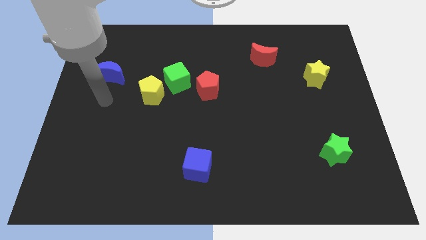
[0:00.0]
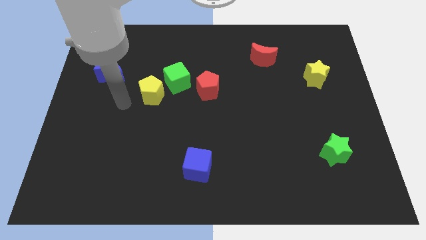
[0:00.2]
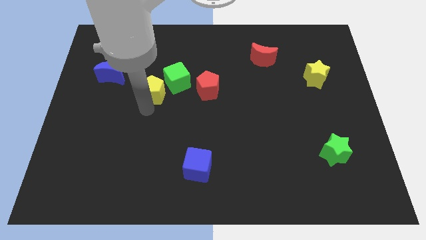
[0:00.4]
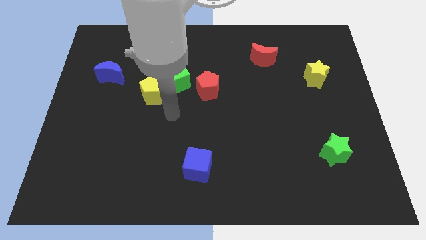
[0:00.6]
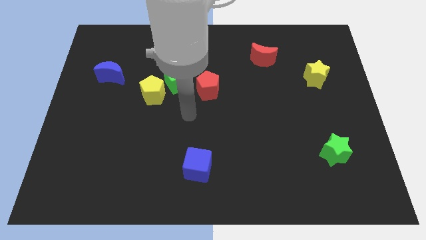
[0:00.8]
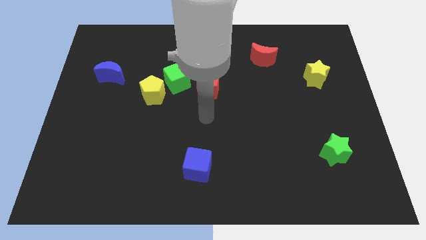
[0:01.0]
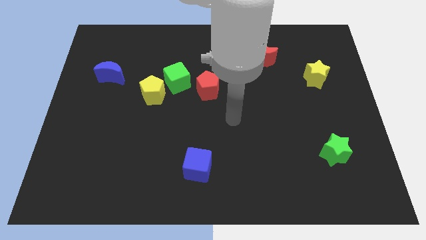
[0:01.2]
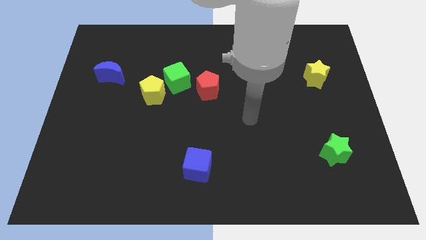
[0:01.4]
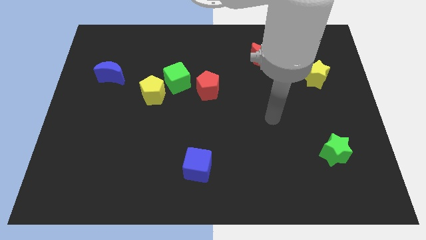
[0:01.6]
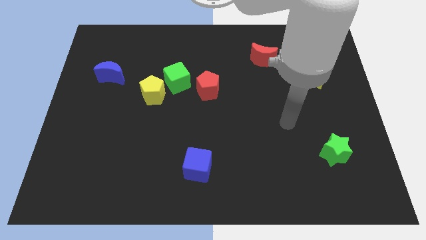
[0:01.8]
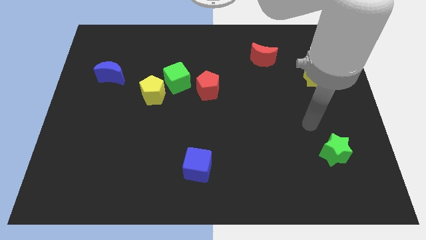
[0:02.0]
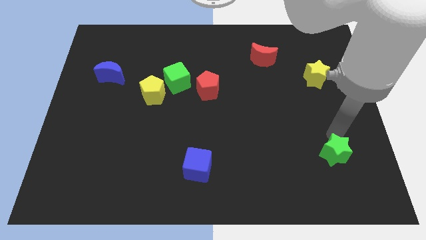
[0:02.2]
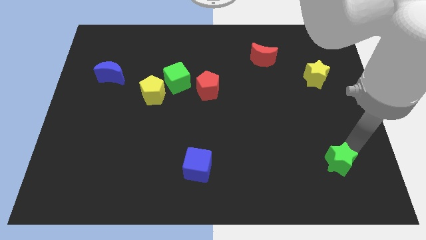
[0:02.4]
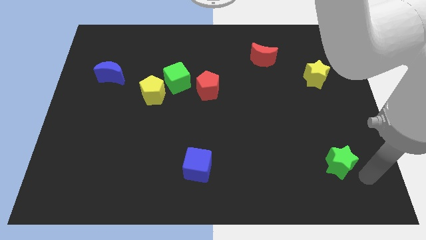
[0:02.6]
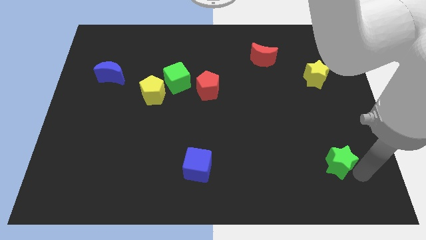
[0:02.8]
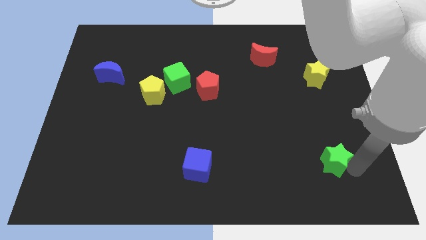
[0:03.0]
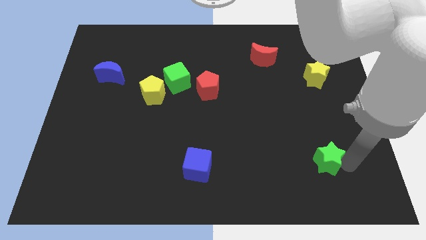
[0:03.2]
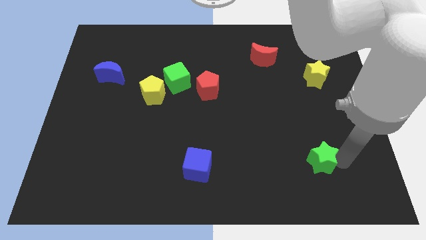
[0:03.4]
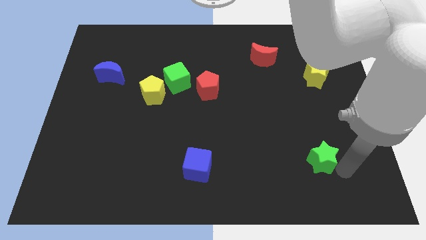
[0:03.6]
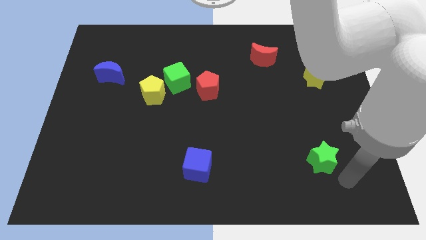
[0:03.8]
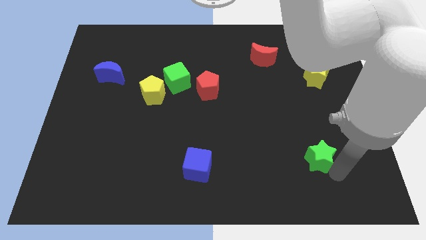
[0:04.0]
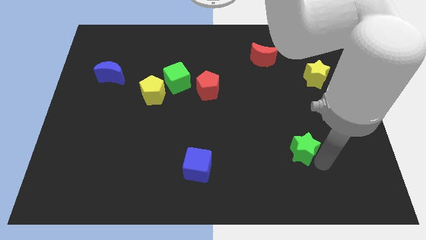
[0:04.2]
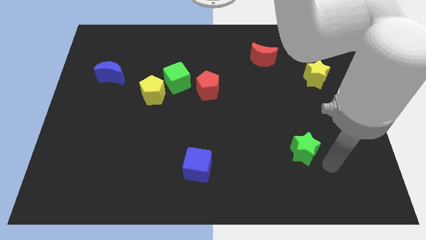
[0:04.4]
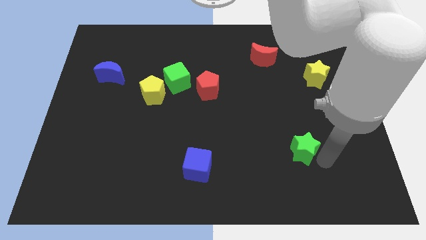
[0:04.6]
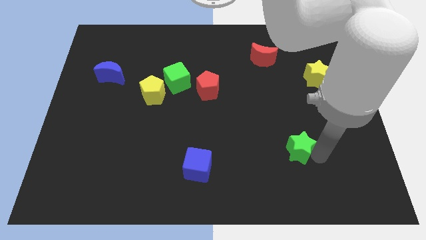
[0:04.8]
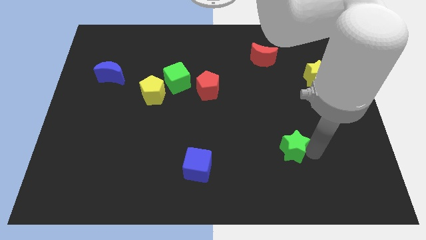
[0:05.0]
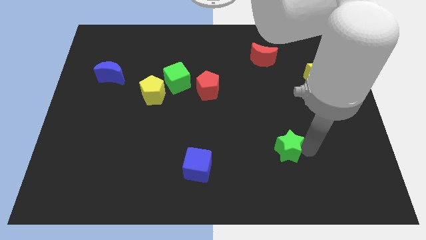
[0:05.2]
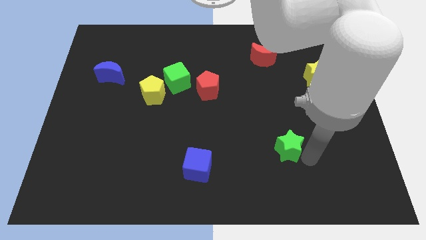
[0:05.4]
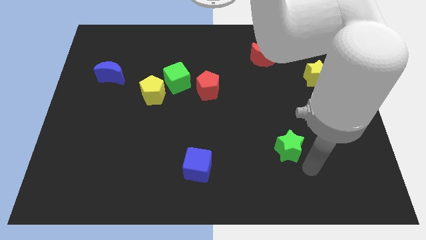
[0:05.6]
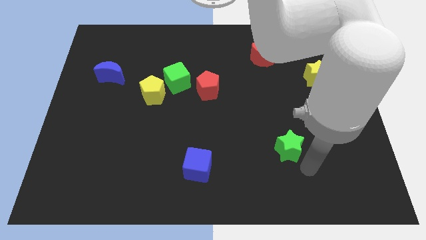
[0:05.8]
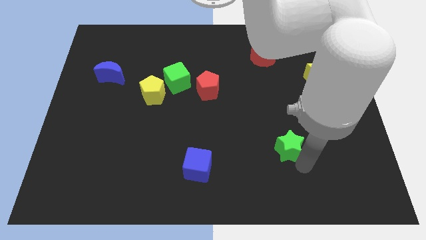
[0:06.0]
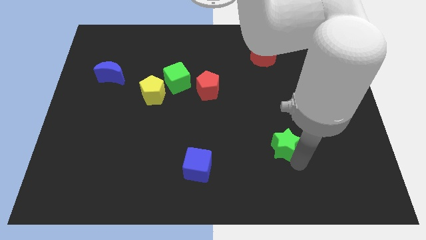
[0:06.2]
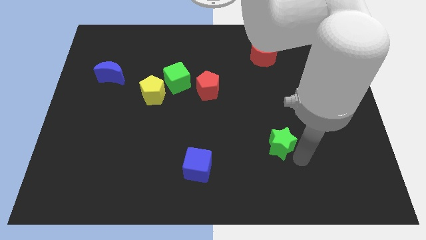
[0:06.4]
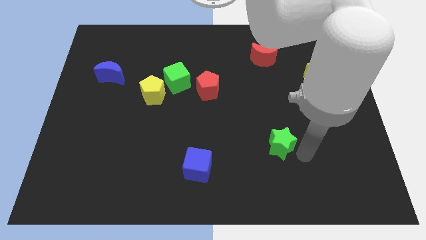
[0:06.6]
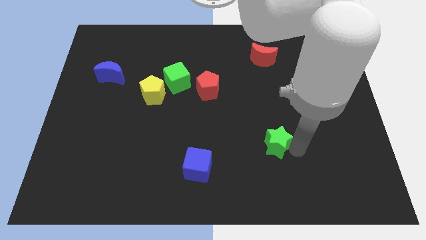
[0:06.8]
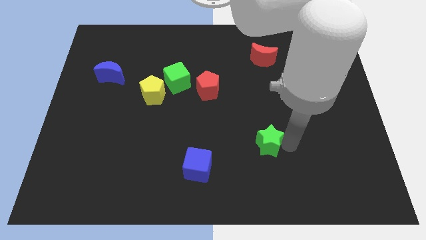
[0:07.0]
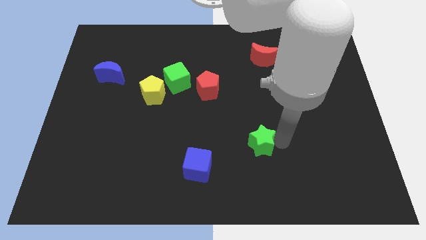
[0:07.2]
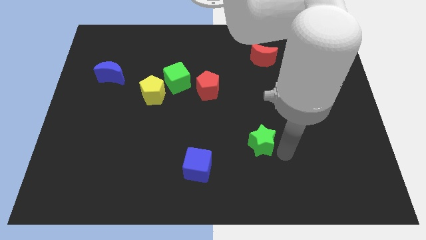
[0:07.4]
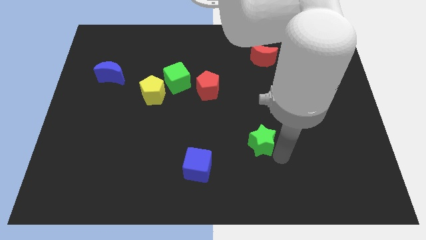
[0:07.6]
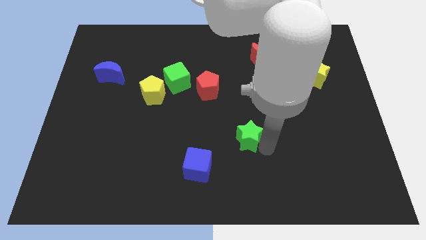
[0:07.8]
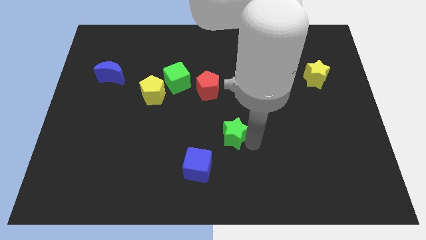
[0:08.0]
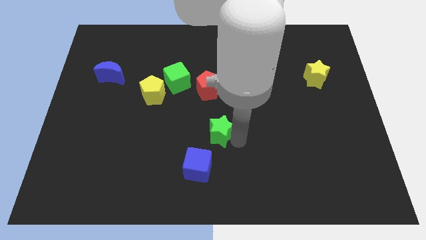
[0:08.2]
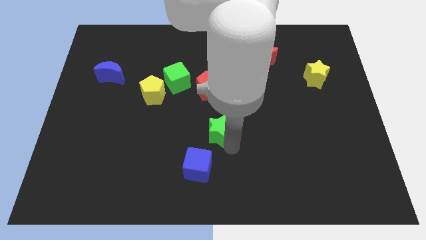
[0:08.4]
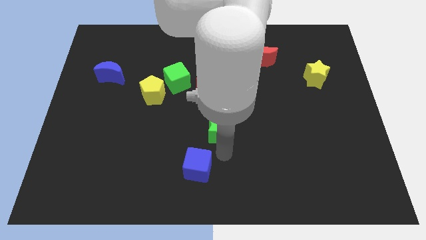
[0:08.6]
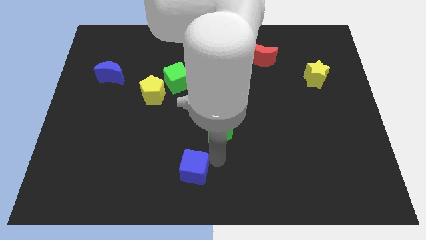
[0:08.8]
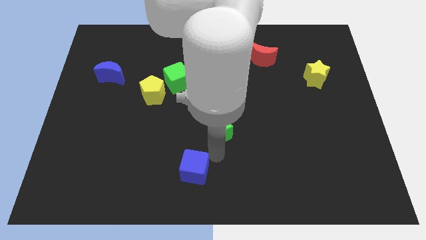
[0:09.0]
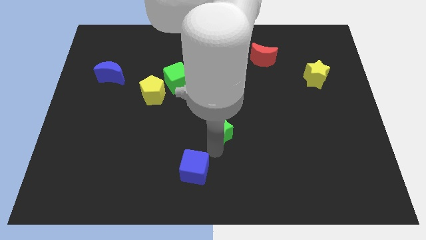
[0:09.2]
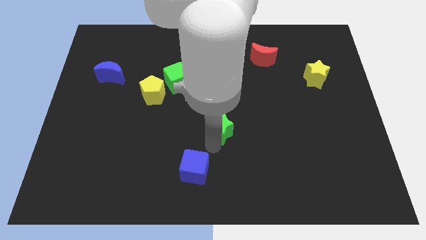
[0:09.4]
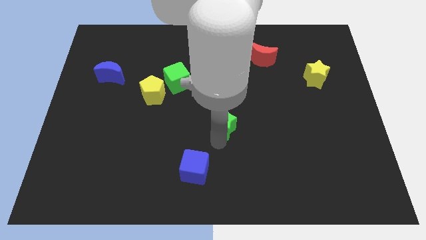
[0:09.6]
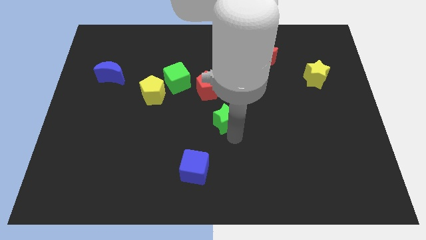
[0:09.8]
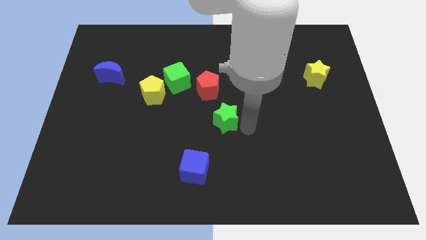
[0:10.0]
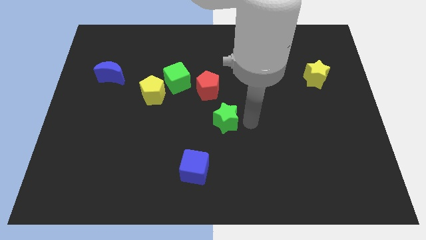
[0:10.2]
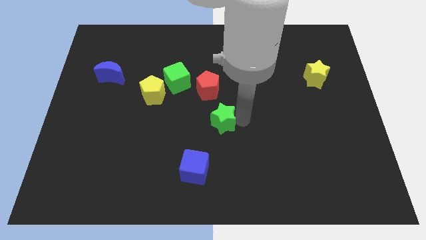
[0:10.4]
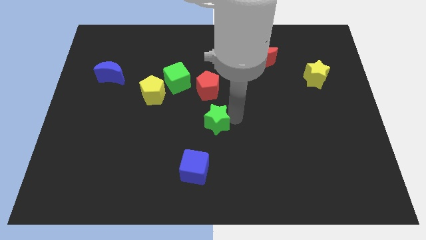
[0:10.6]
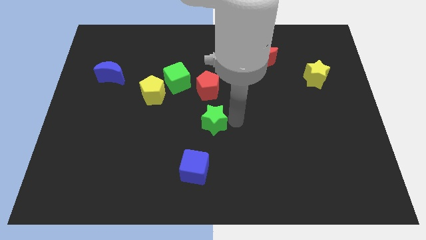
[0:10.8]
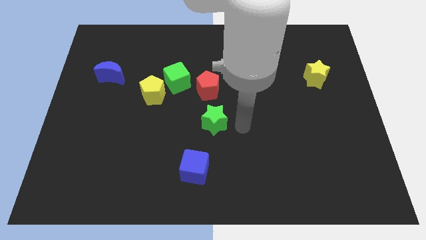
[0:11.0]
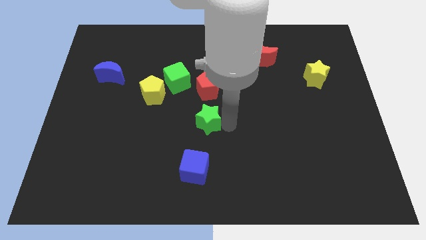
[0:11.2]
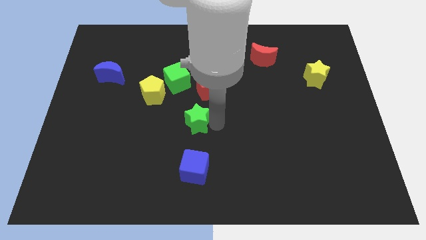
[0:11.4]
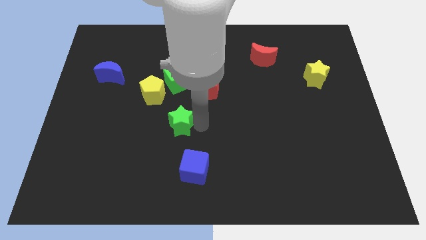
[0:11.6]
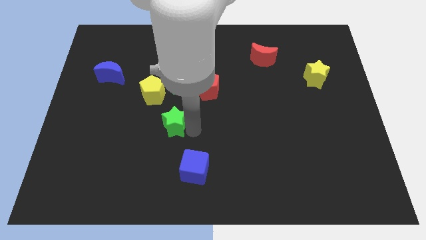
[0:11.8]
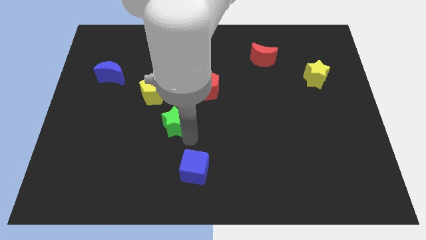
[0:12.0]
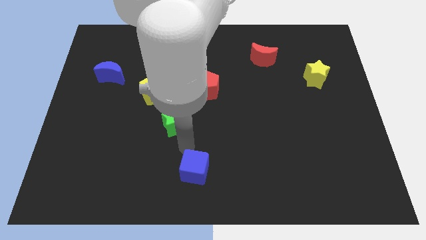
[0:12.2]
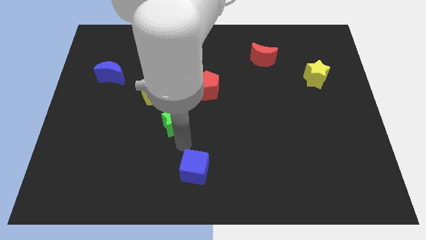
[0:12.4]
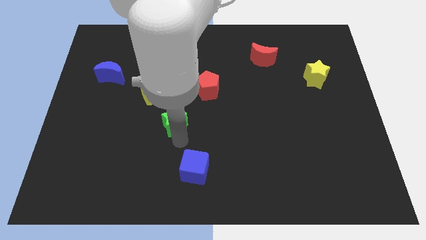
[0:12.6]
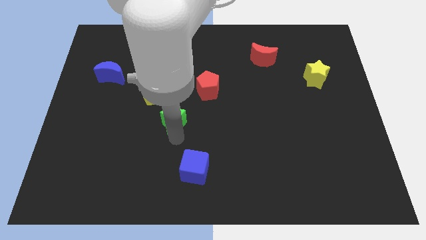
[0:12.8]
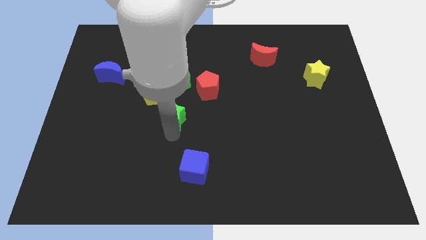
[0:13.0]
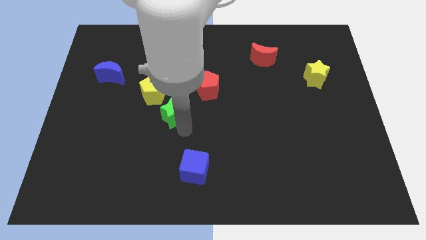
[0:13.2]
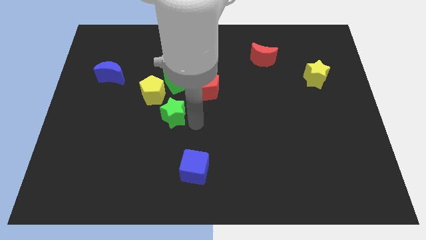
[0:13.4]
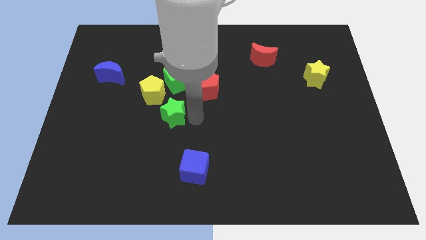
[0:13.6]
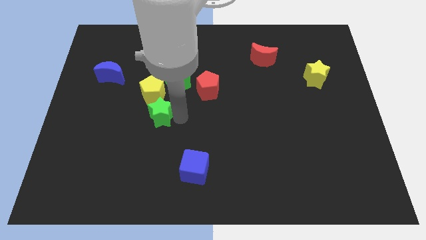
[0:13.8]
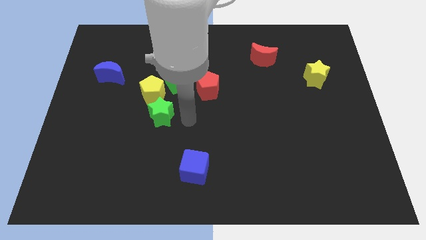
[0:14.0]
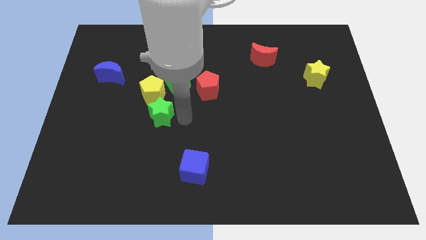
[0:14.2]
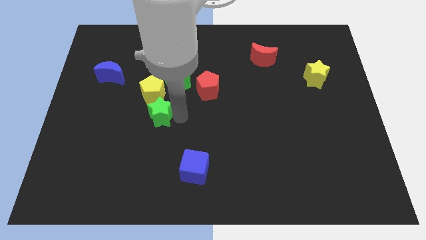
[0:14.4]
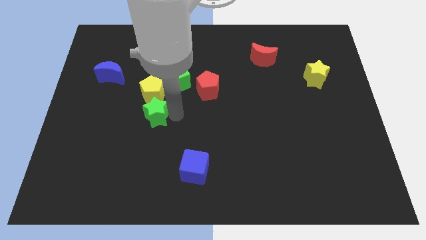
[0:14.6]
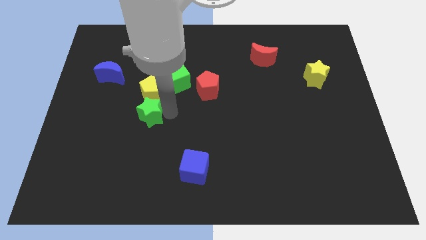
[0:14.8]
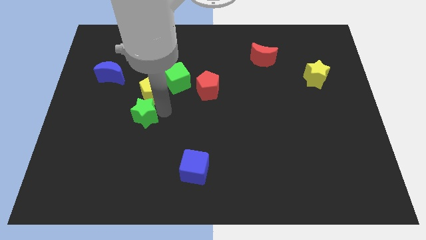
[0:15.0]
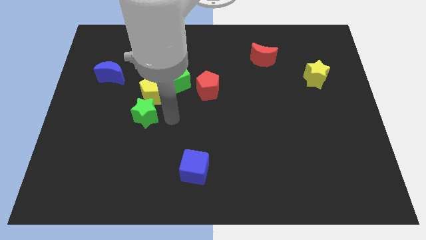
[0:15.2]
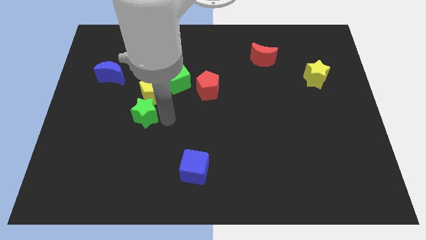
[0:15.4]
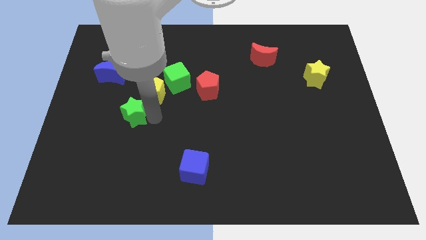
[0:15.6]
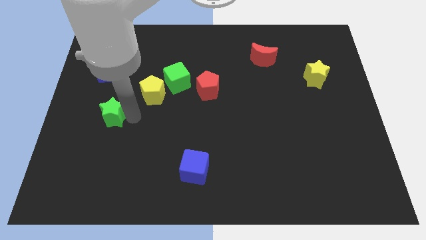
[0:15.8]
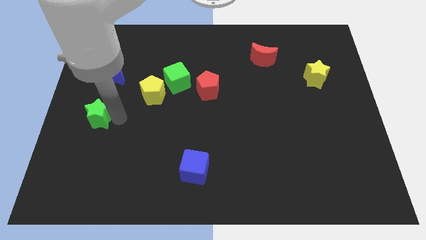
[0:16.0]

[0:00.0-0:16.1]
slide the green star to the center left
